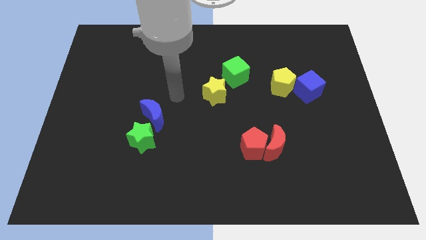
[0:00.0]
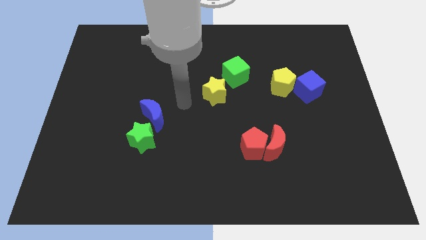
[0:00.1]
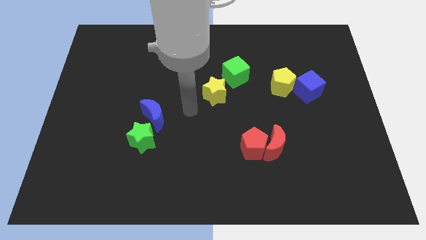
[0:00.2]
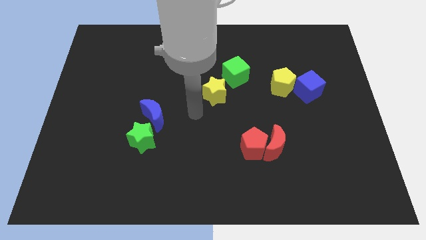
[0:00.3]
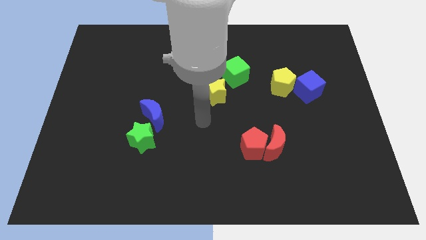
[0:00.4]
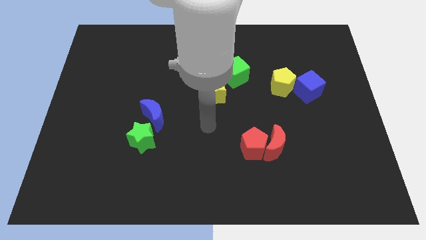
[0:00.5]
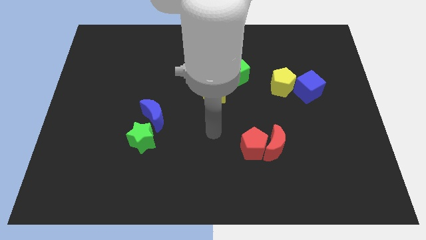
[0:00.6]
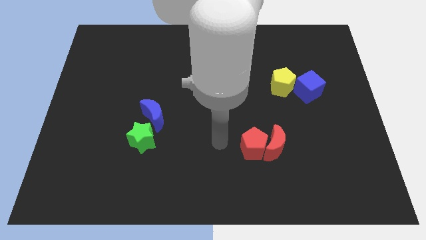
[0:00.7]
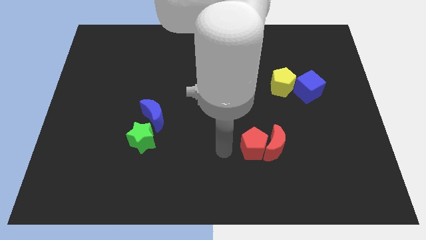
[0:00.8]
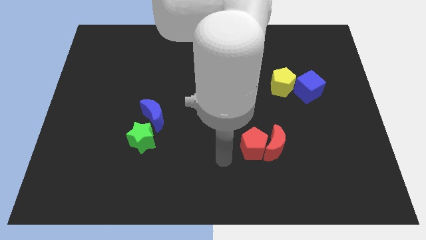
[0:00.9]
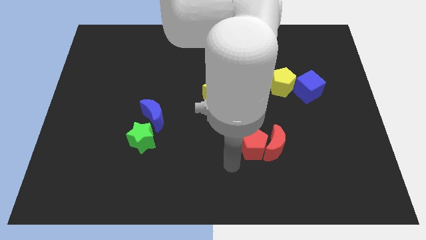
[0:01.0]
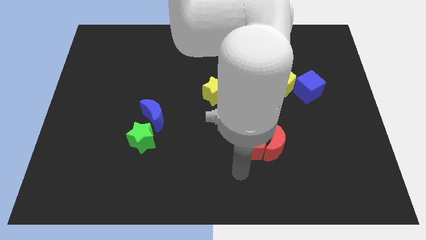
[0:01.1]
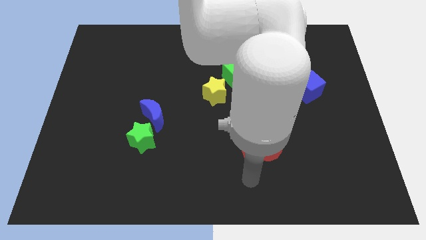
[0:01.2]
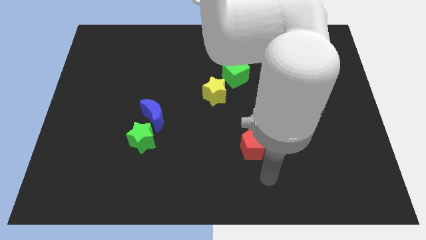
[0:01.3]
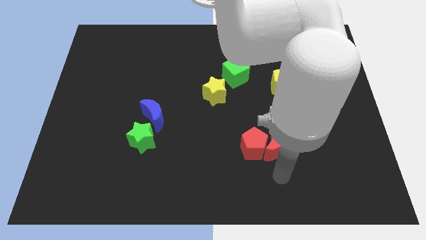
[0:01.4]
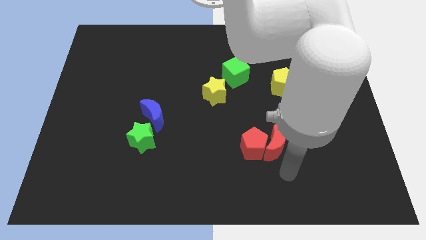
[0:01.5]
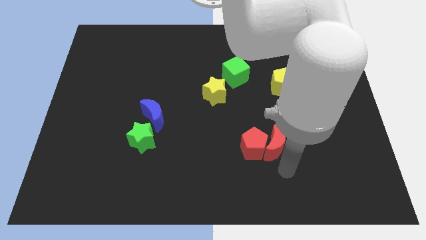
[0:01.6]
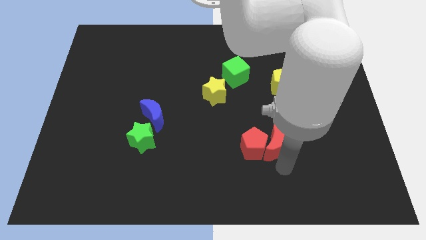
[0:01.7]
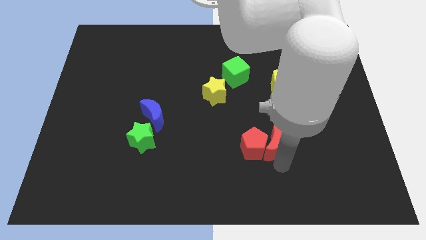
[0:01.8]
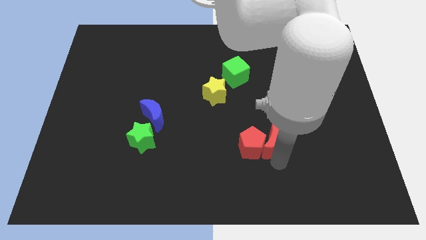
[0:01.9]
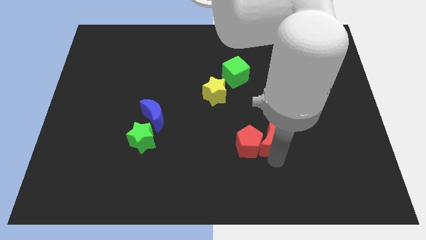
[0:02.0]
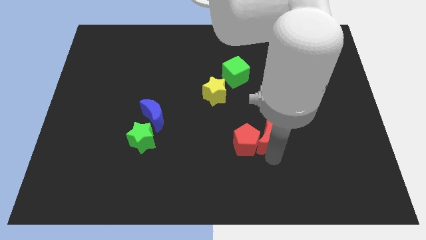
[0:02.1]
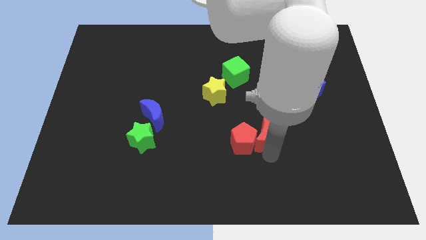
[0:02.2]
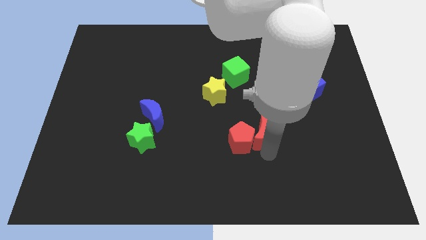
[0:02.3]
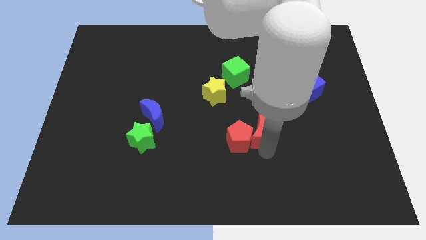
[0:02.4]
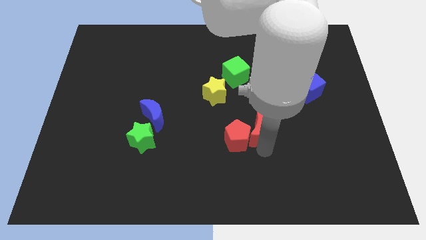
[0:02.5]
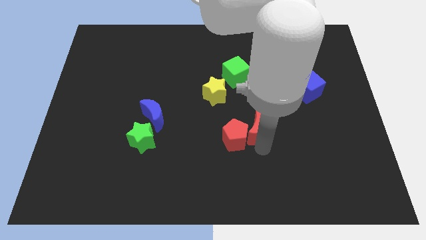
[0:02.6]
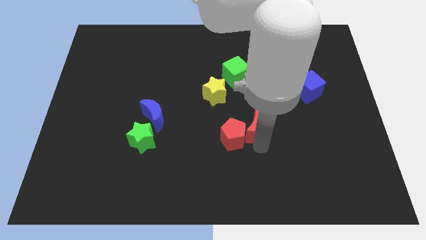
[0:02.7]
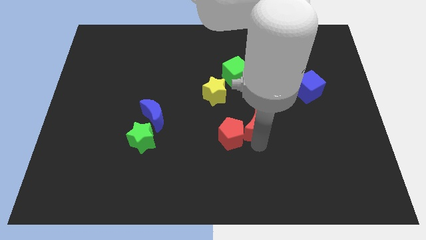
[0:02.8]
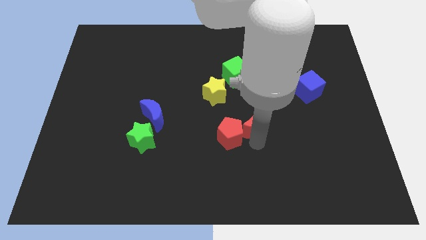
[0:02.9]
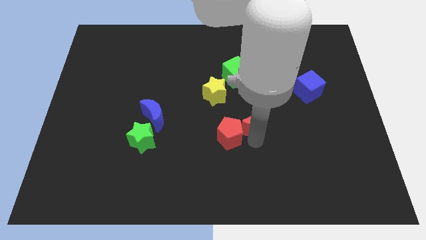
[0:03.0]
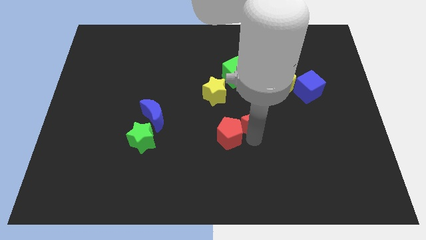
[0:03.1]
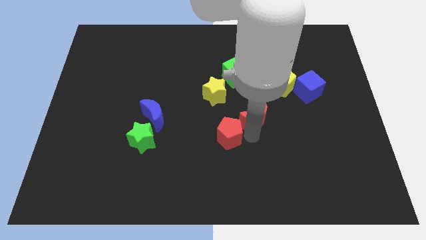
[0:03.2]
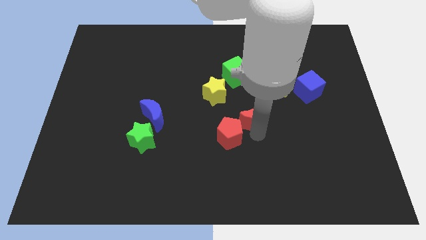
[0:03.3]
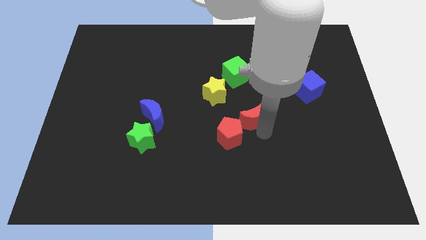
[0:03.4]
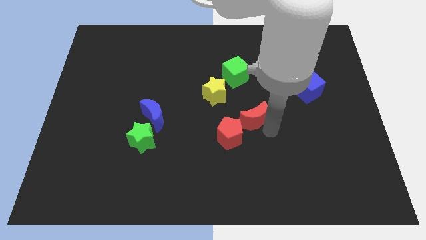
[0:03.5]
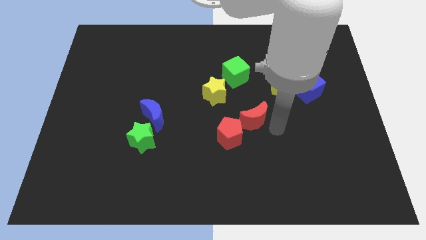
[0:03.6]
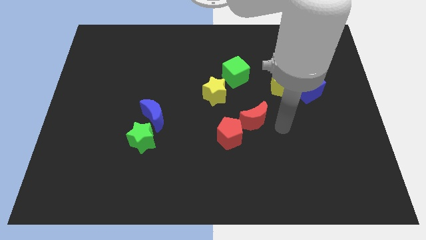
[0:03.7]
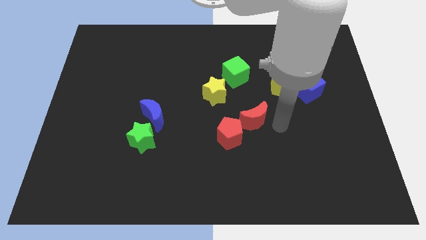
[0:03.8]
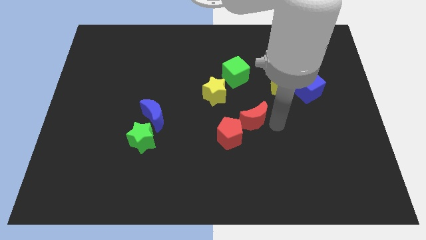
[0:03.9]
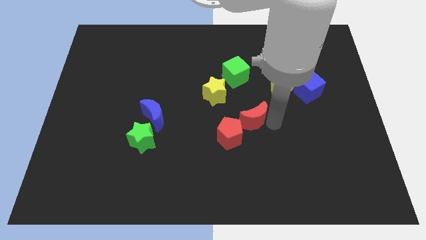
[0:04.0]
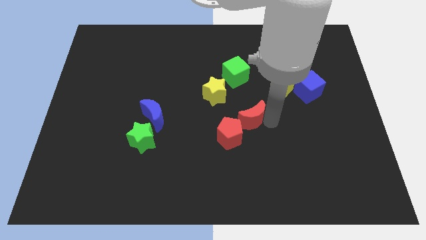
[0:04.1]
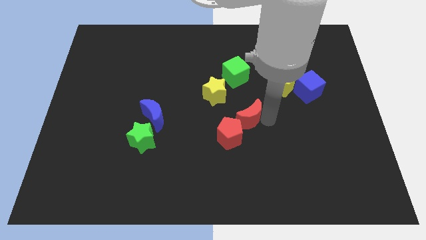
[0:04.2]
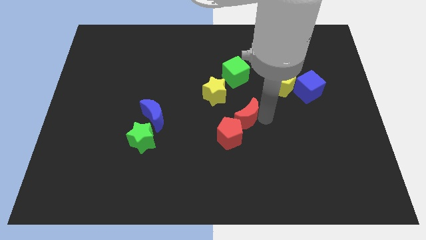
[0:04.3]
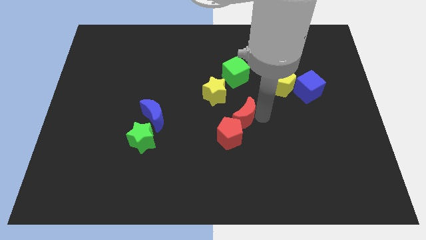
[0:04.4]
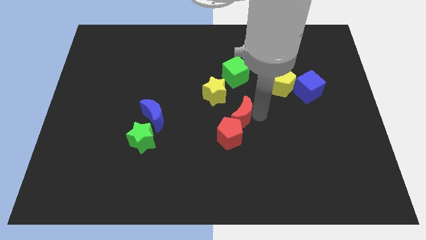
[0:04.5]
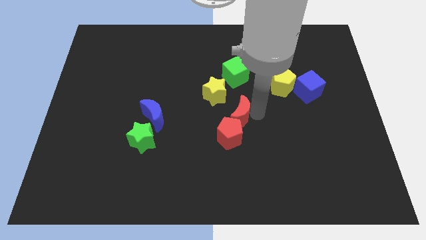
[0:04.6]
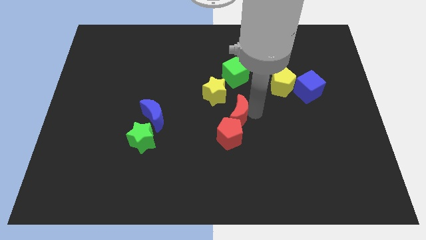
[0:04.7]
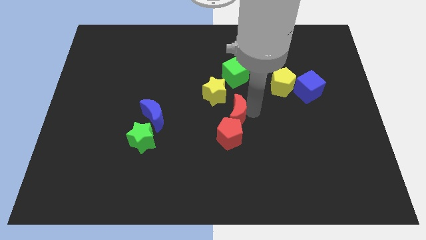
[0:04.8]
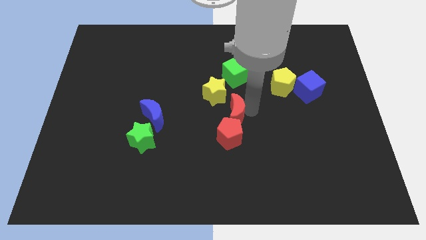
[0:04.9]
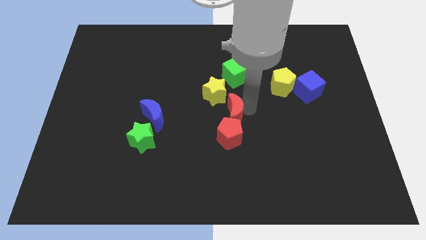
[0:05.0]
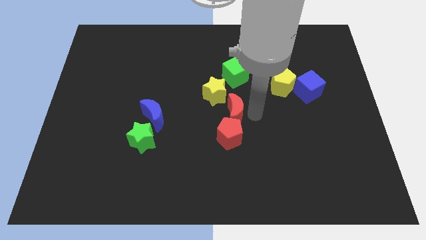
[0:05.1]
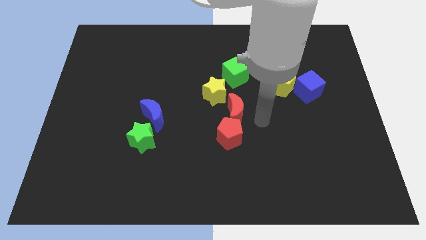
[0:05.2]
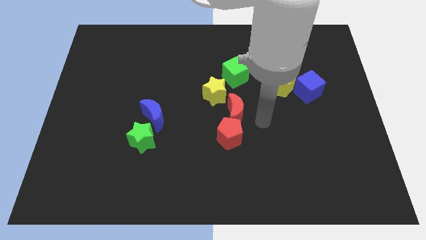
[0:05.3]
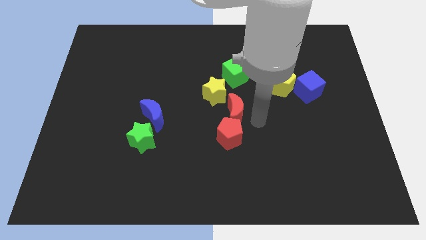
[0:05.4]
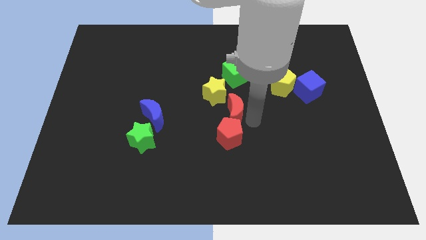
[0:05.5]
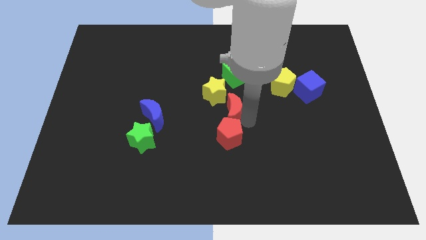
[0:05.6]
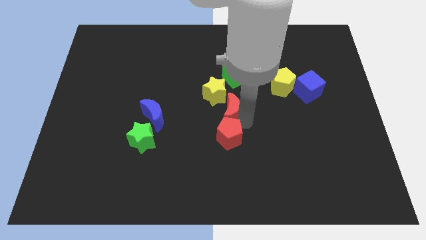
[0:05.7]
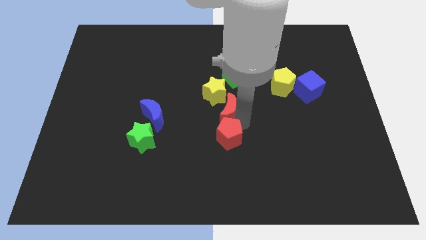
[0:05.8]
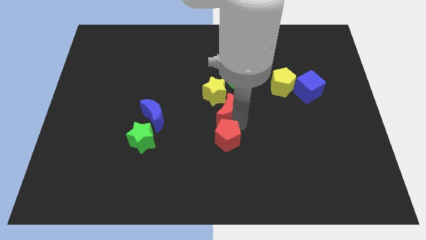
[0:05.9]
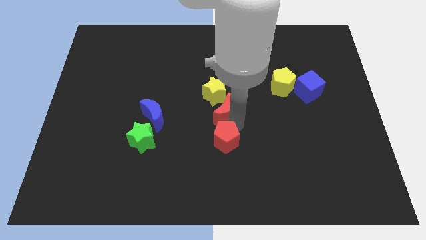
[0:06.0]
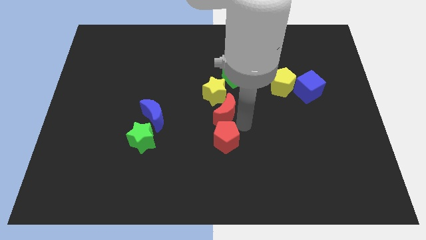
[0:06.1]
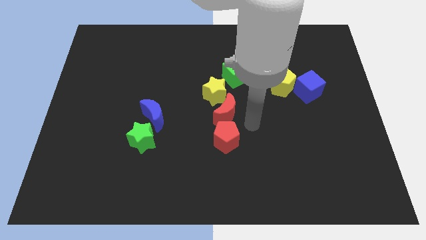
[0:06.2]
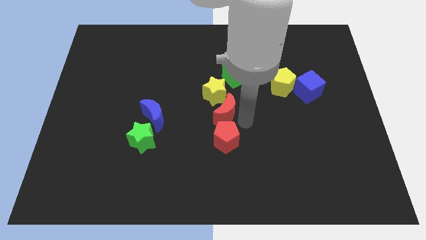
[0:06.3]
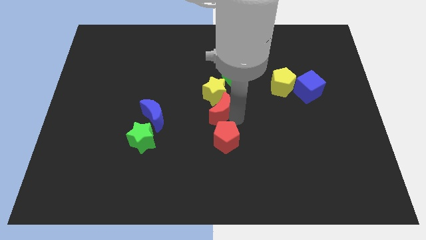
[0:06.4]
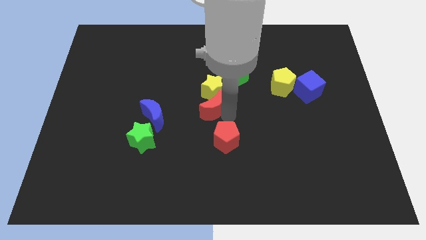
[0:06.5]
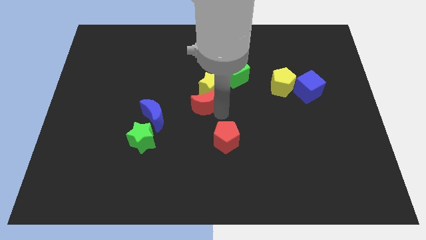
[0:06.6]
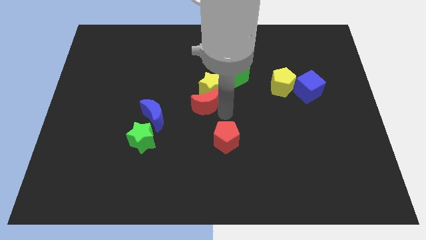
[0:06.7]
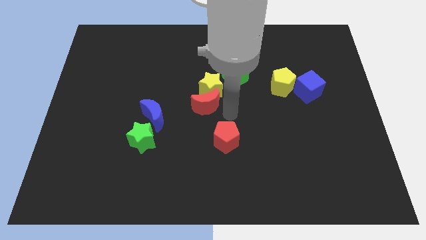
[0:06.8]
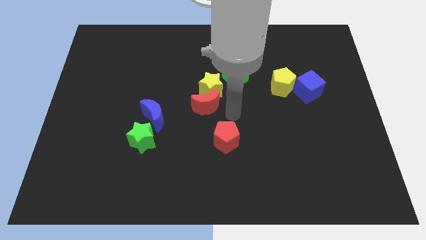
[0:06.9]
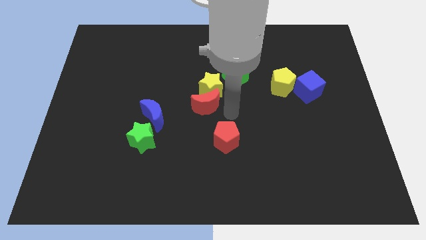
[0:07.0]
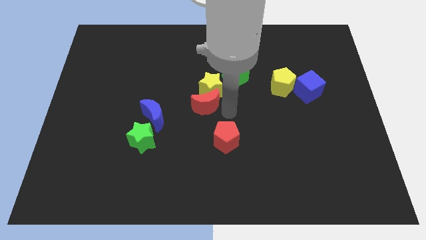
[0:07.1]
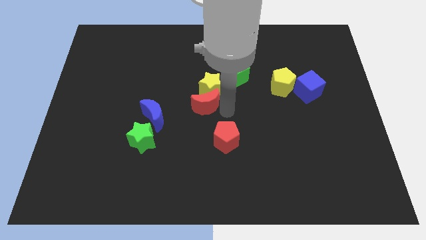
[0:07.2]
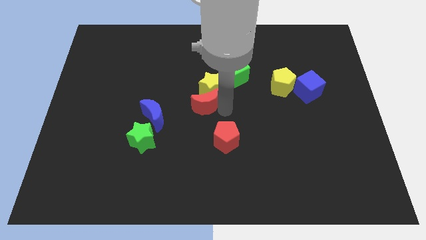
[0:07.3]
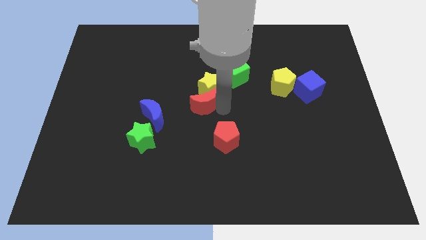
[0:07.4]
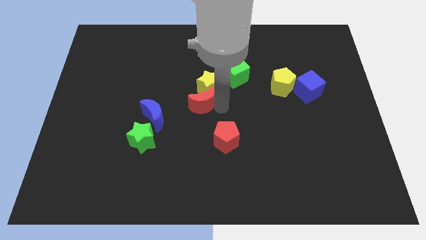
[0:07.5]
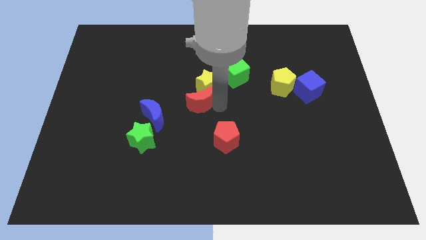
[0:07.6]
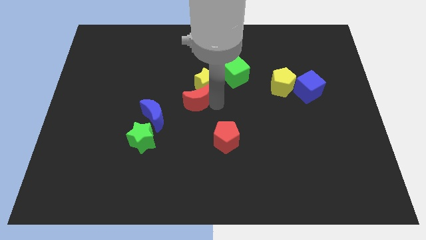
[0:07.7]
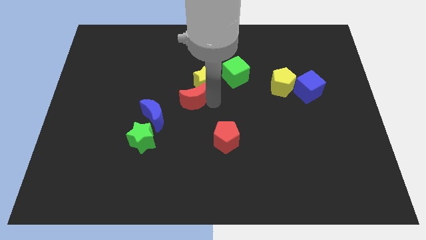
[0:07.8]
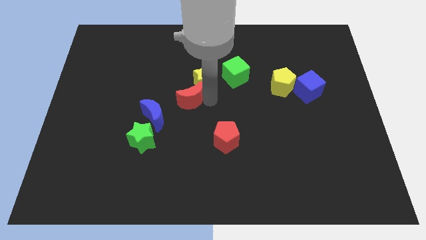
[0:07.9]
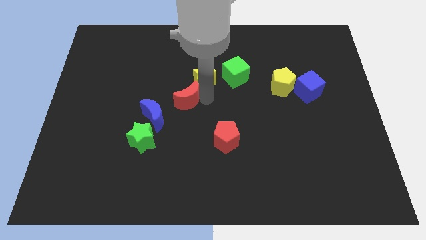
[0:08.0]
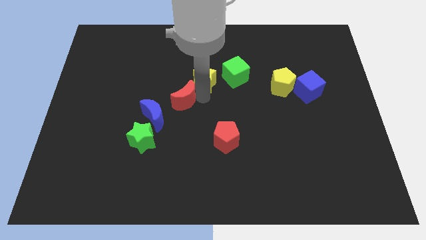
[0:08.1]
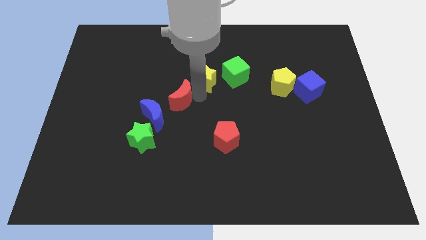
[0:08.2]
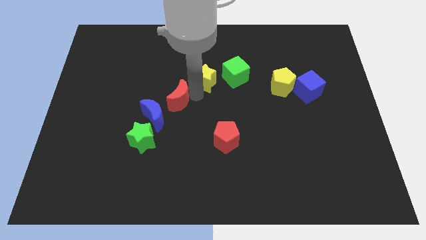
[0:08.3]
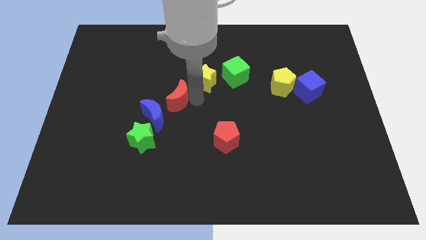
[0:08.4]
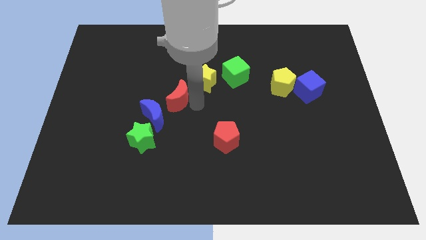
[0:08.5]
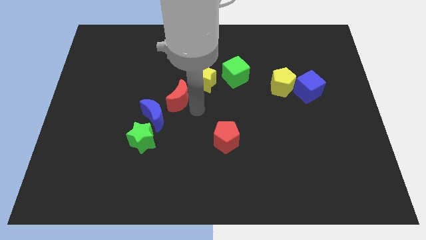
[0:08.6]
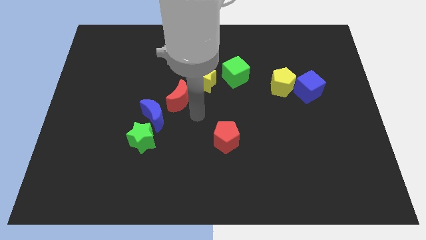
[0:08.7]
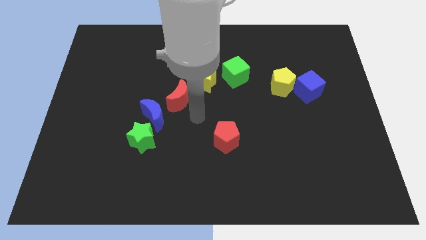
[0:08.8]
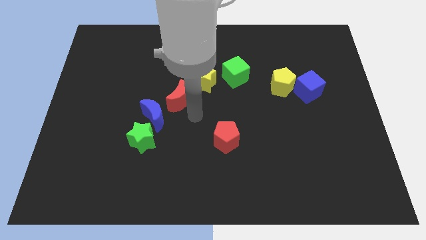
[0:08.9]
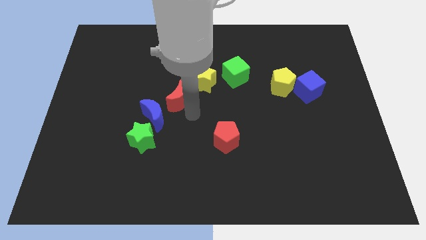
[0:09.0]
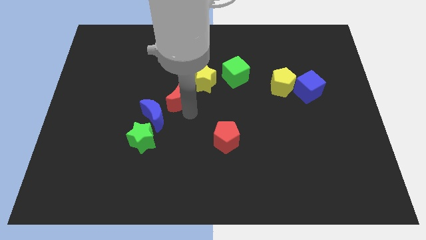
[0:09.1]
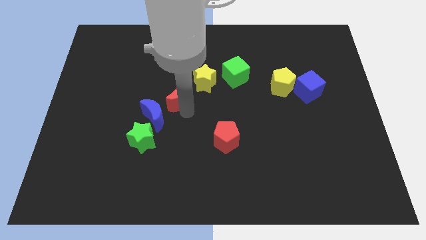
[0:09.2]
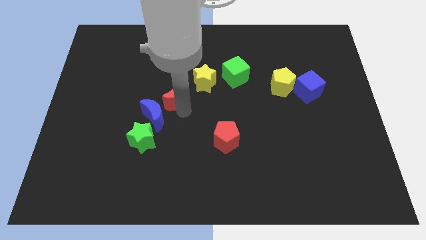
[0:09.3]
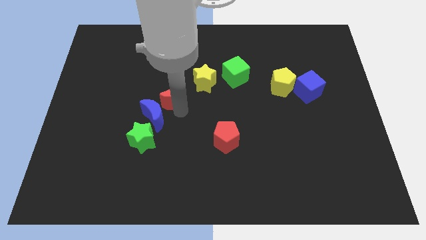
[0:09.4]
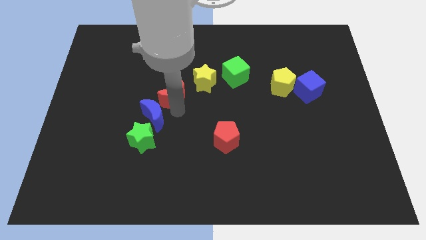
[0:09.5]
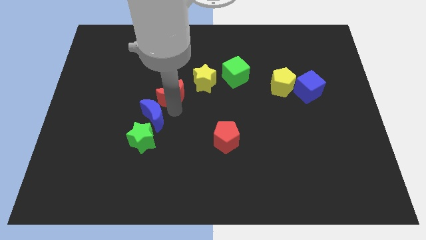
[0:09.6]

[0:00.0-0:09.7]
slide the red moon just left of the yellow star
